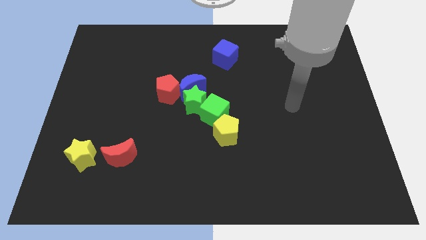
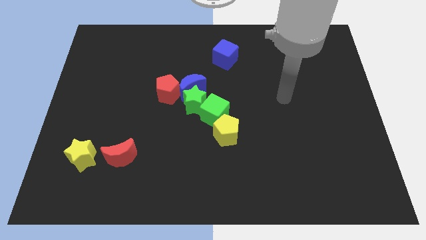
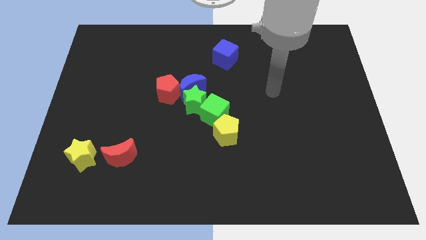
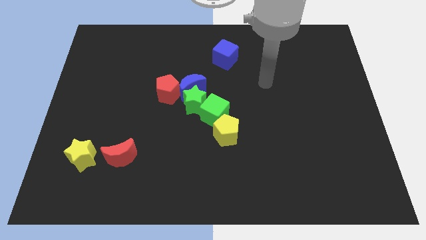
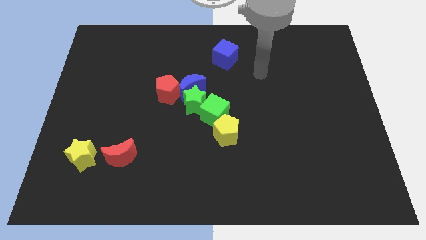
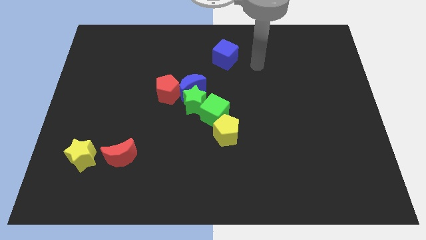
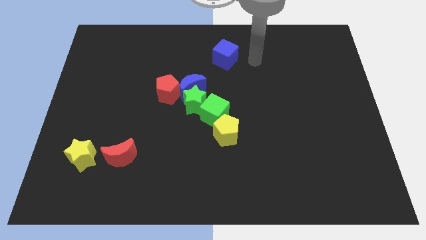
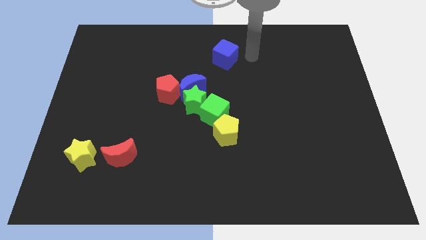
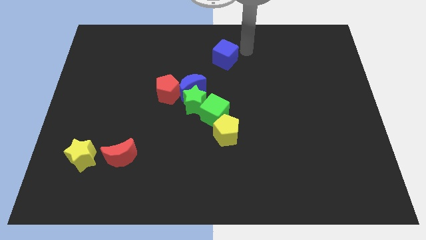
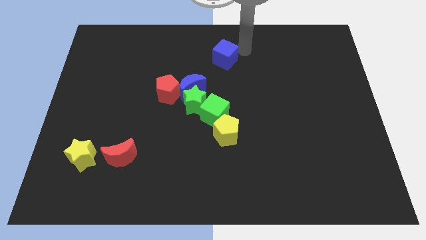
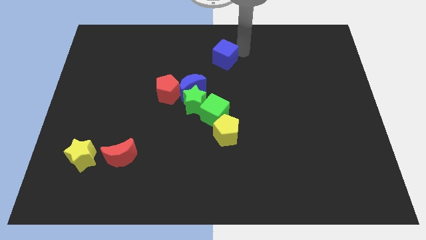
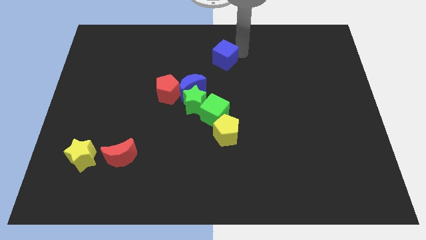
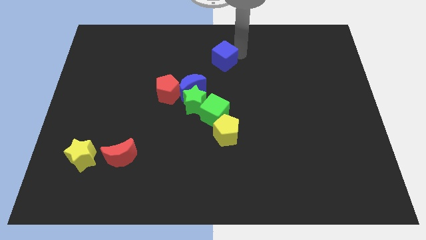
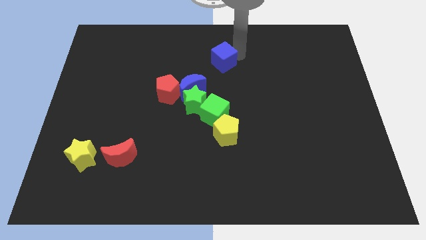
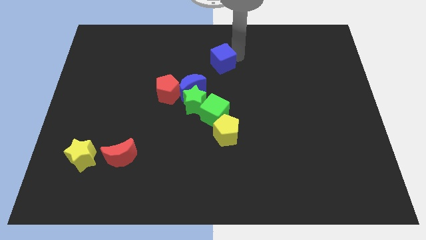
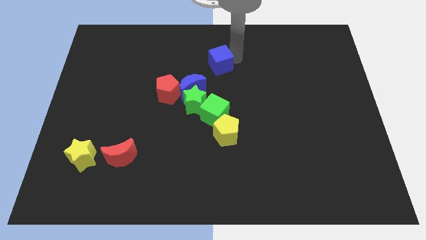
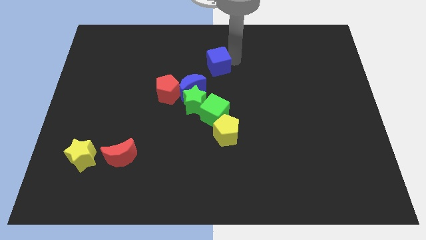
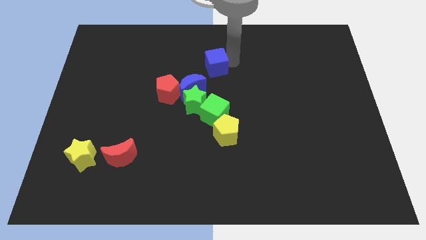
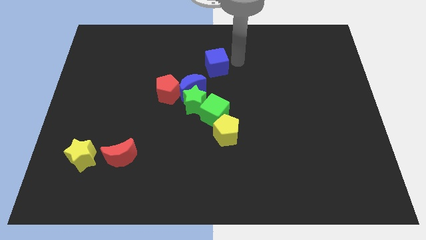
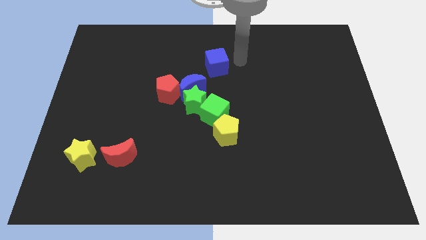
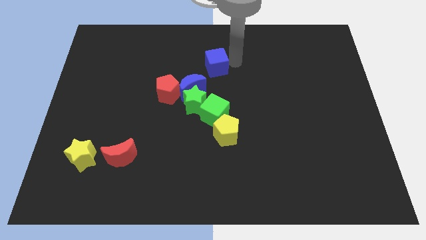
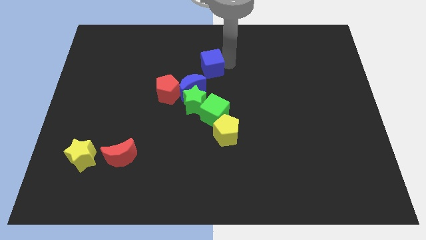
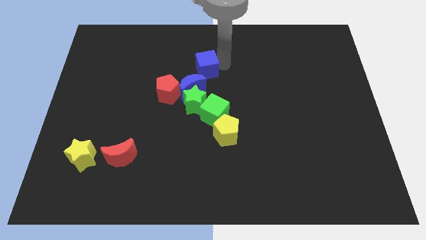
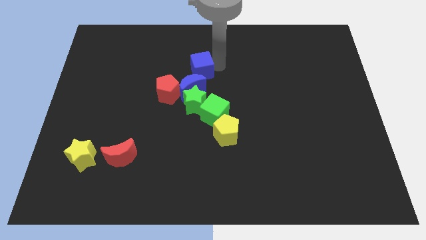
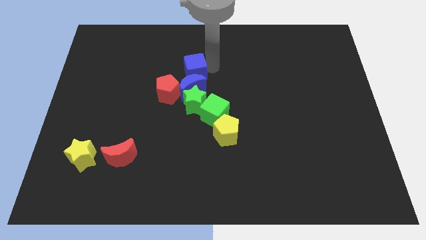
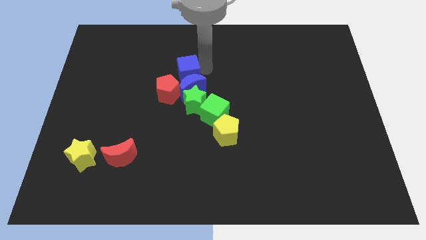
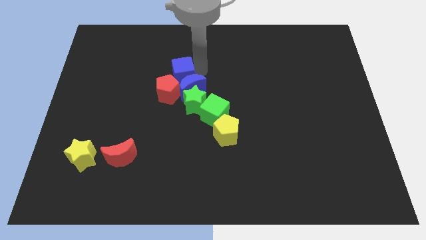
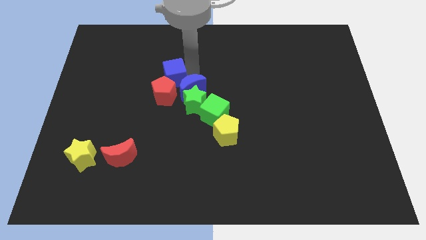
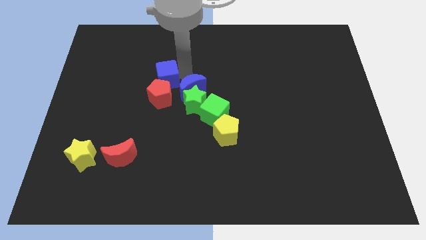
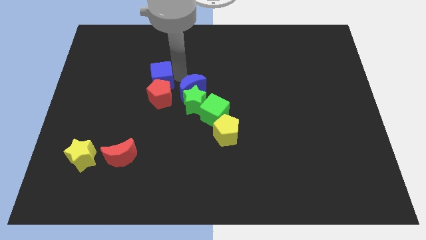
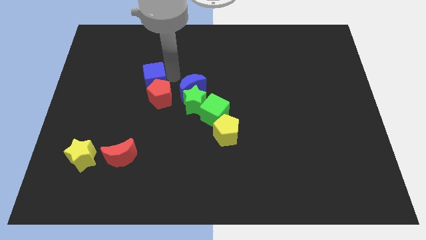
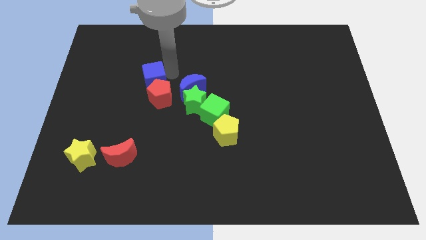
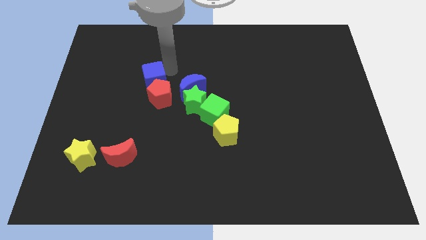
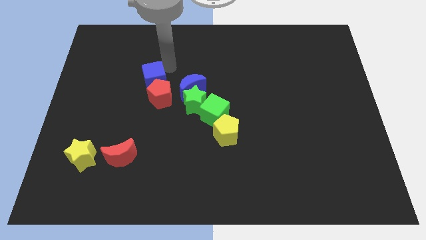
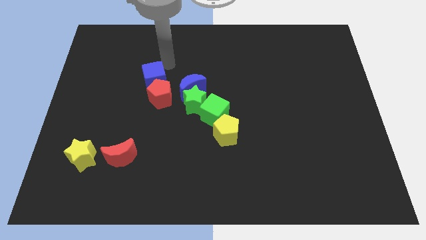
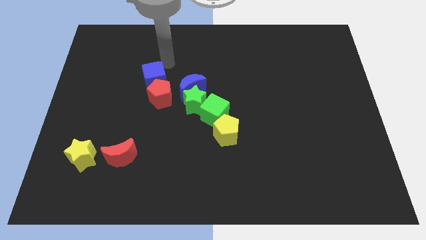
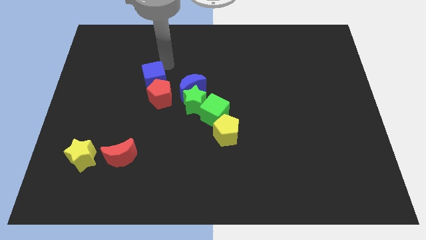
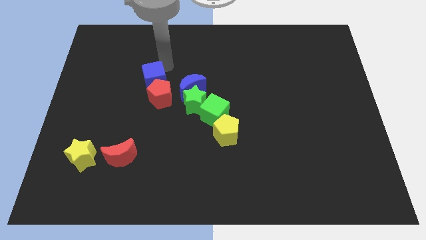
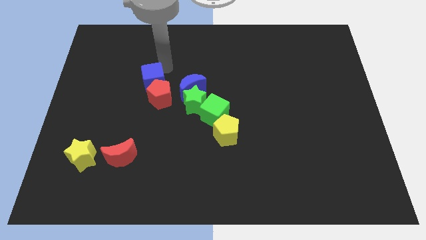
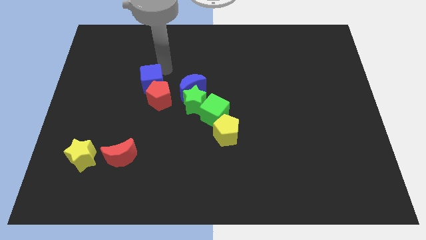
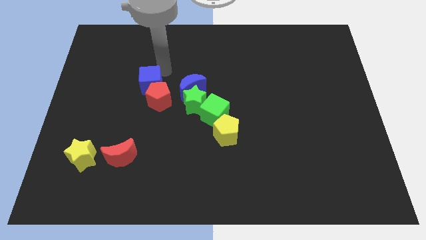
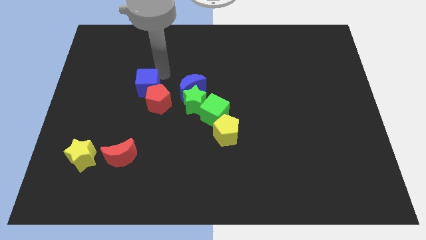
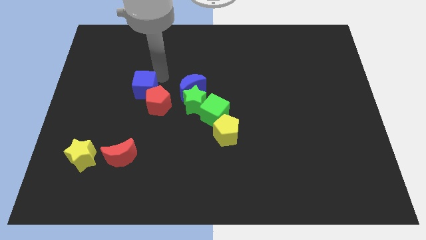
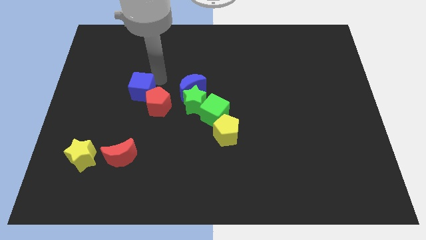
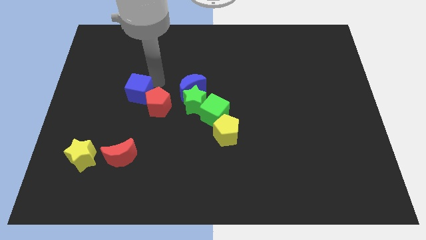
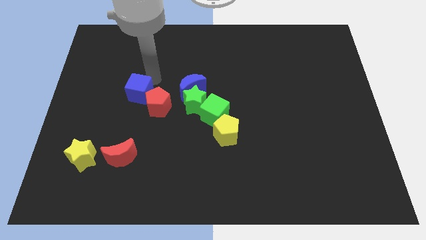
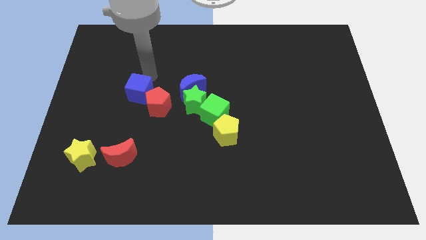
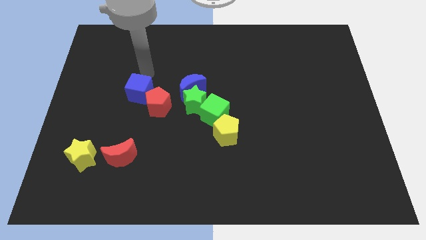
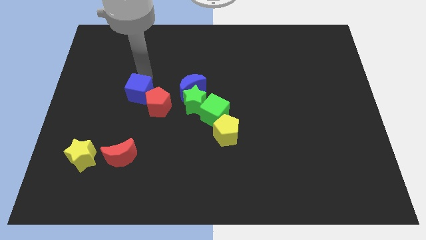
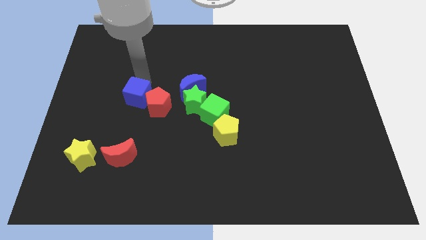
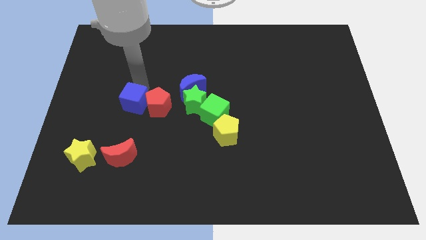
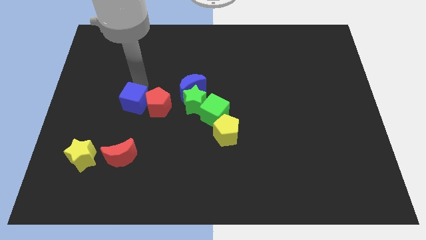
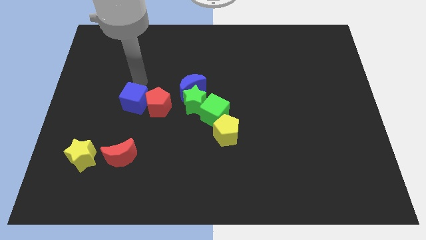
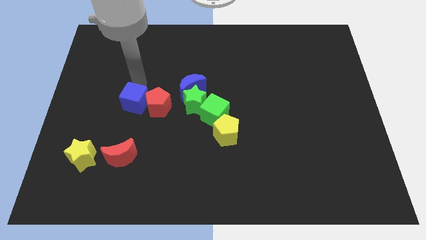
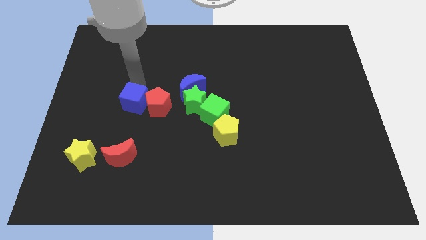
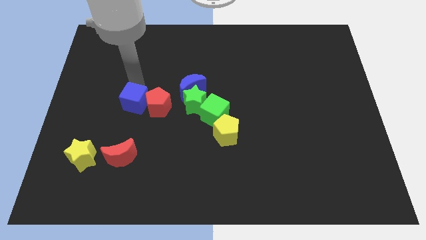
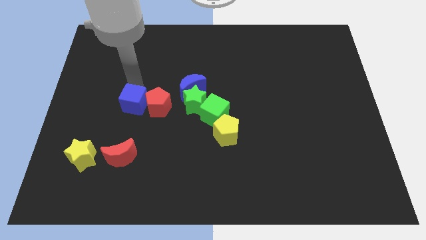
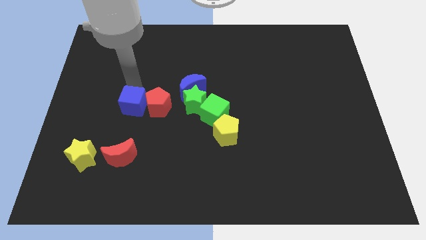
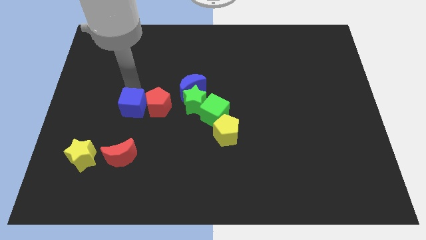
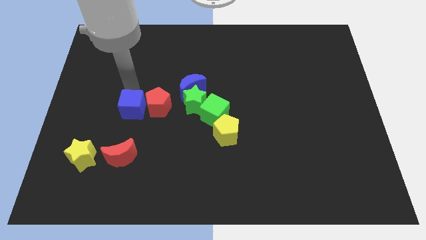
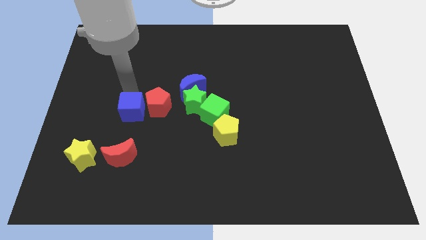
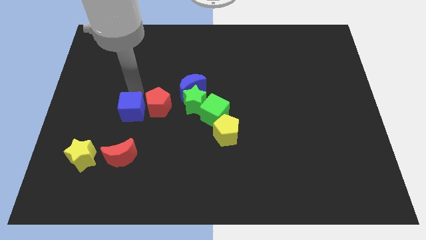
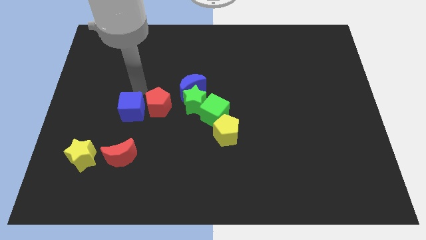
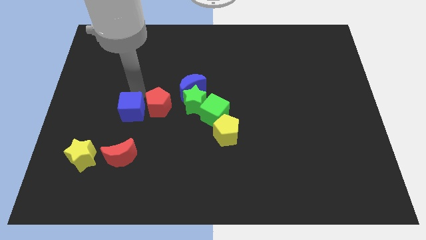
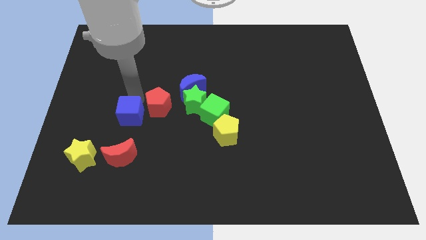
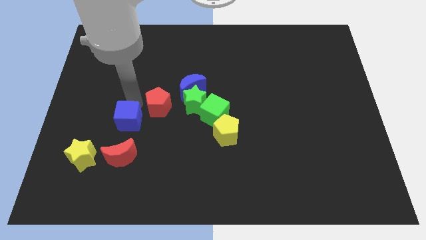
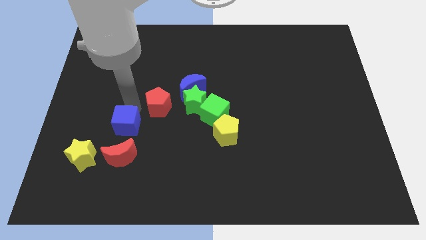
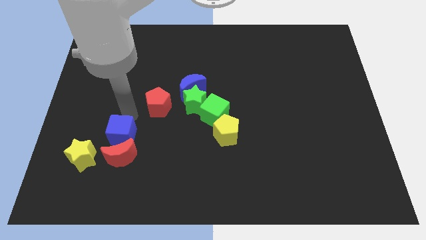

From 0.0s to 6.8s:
move the blue cube close to the red moon

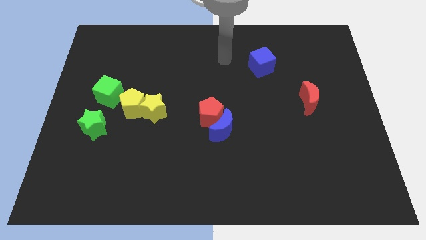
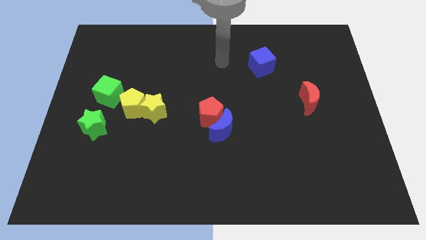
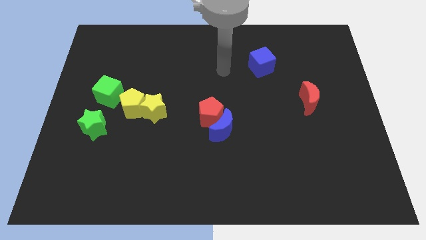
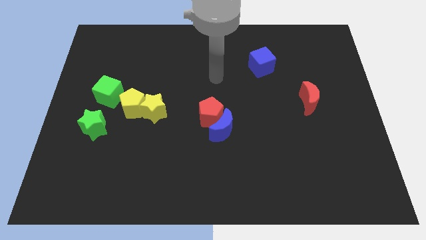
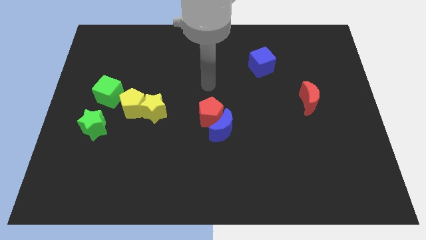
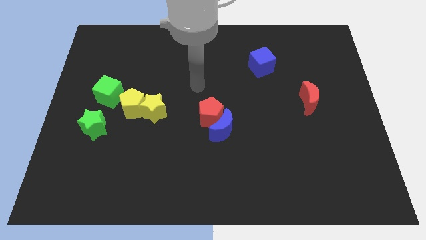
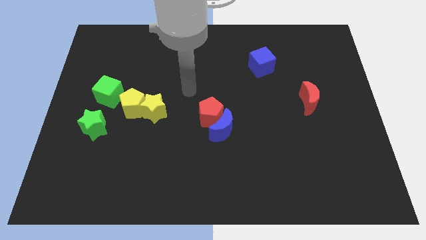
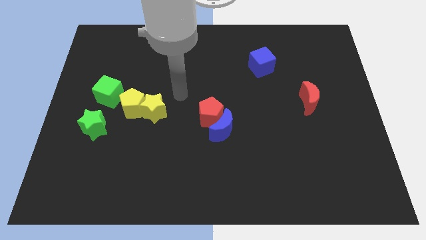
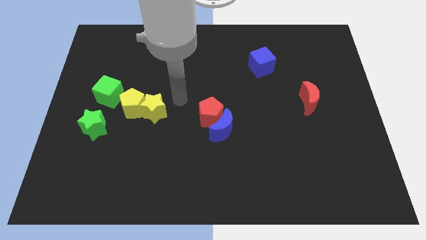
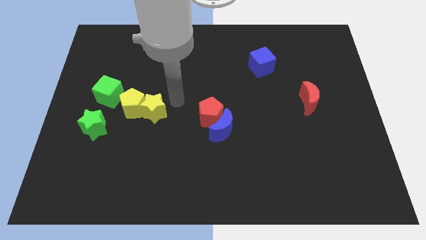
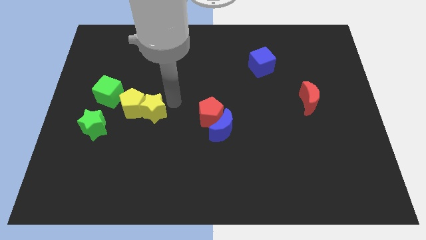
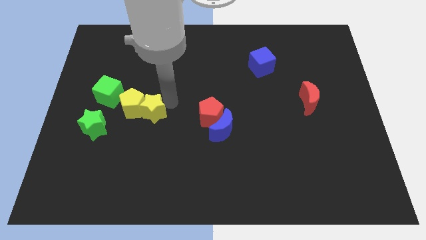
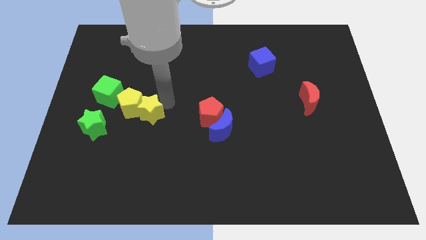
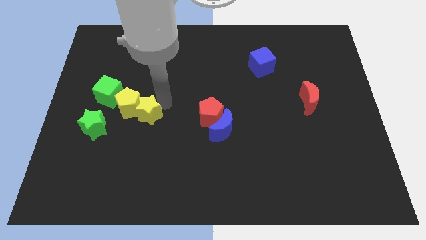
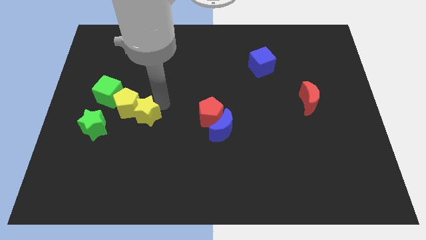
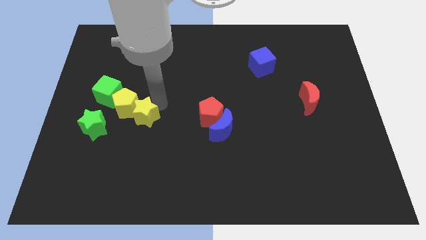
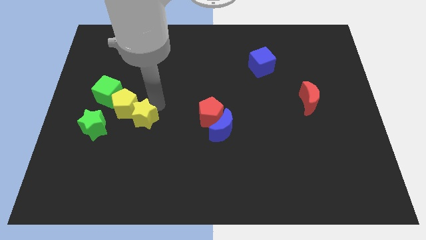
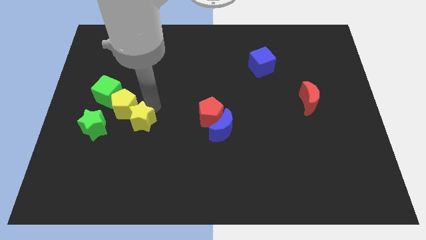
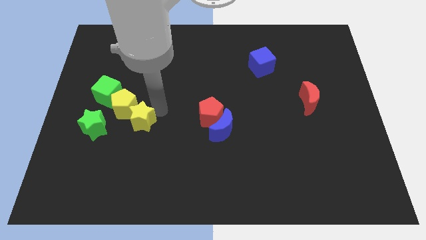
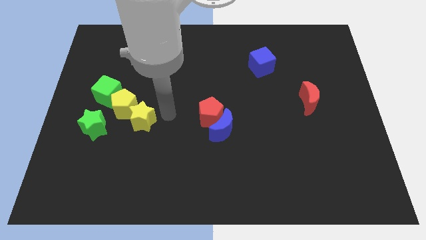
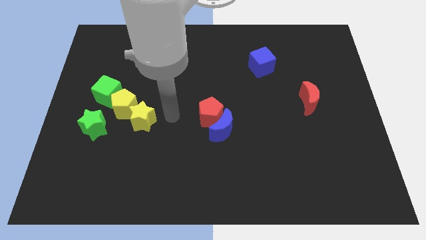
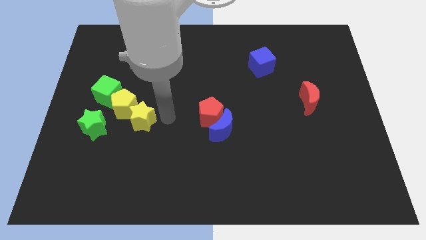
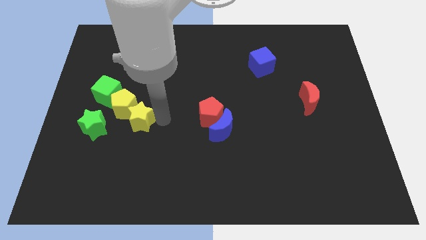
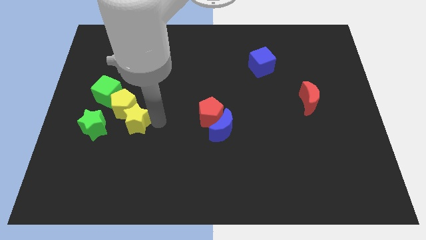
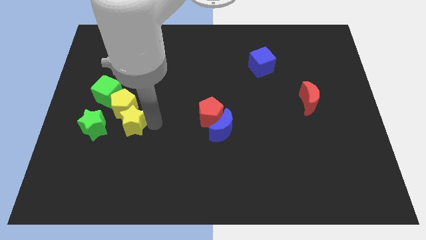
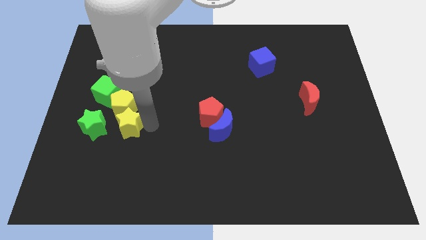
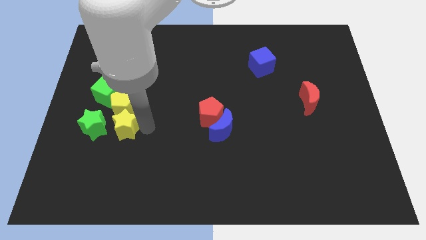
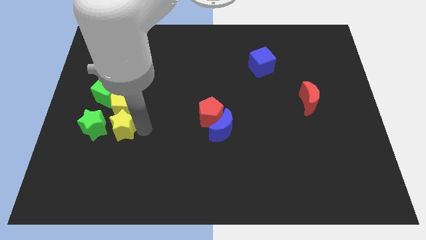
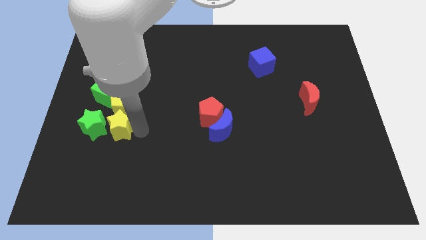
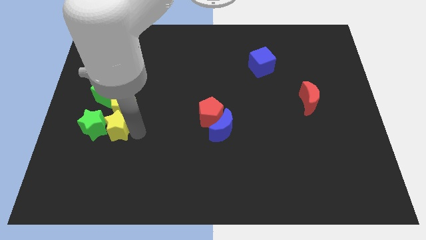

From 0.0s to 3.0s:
slide the yellow star close to the green star
